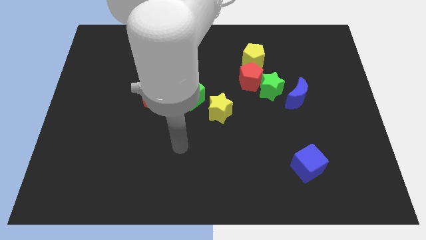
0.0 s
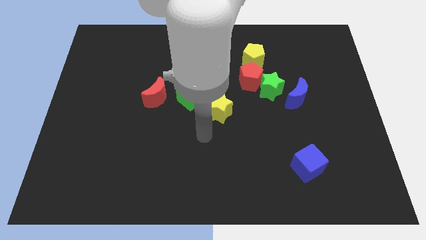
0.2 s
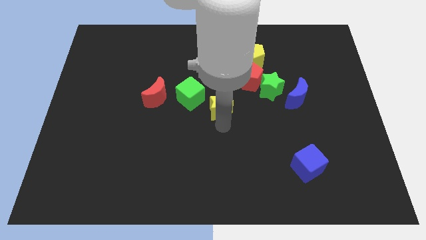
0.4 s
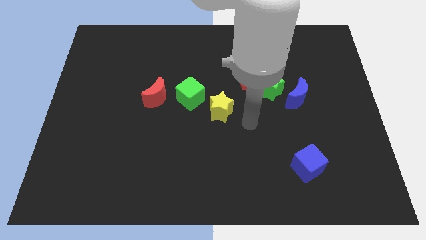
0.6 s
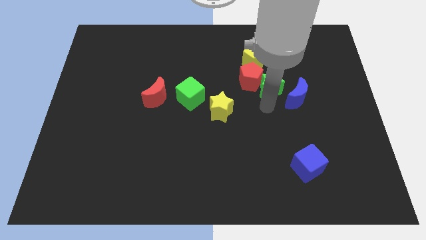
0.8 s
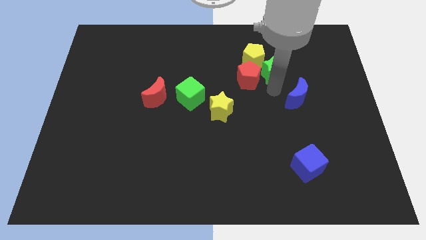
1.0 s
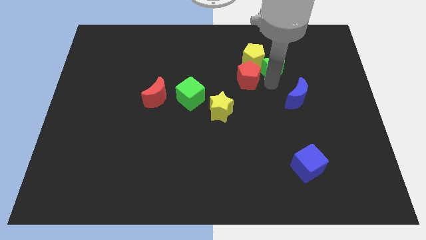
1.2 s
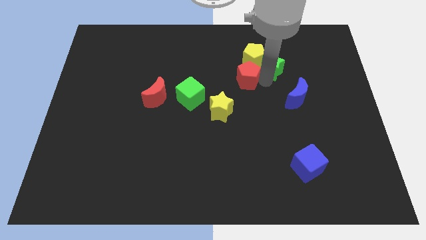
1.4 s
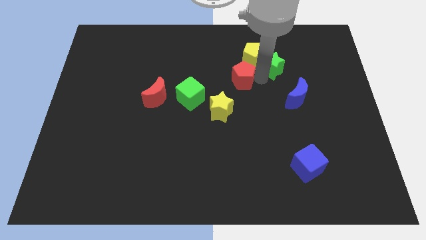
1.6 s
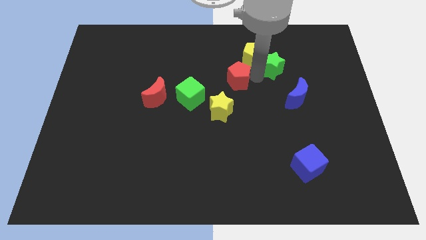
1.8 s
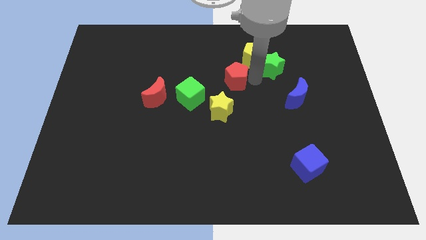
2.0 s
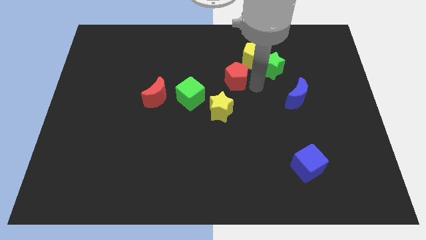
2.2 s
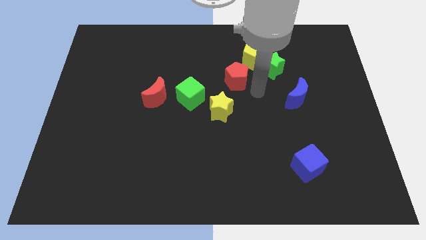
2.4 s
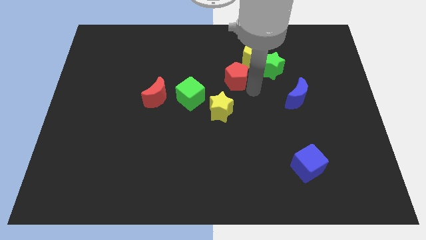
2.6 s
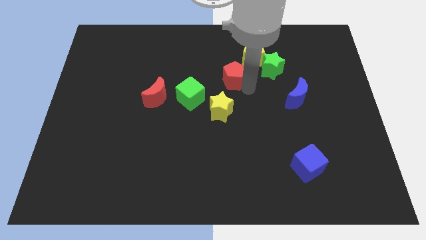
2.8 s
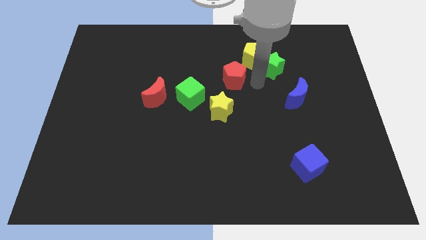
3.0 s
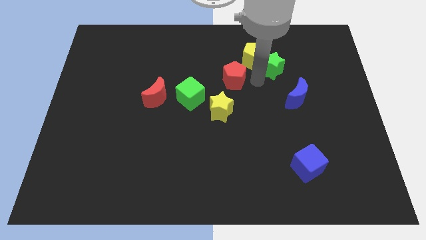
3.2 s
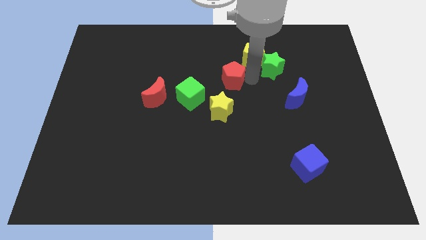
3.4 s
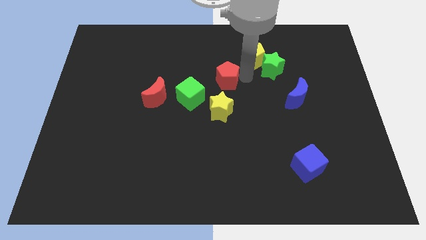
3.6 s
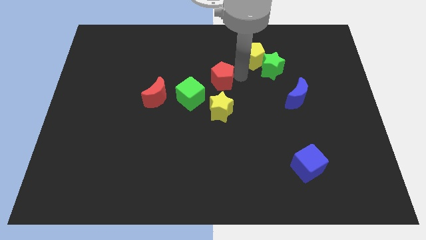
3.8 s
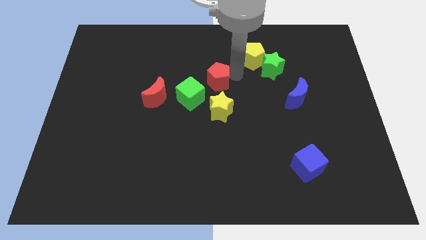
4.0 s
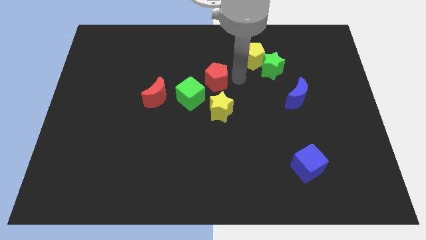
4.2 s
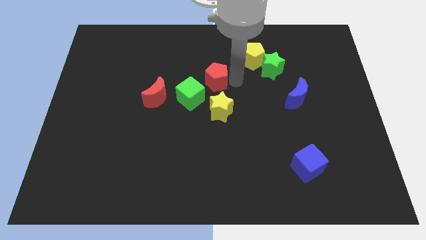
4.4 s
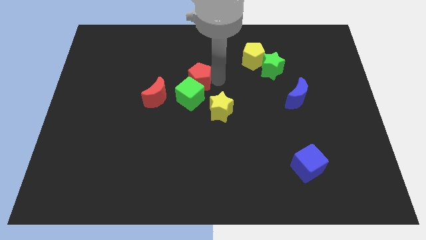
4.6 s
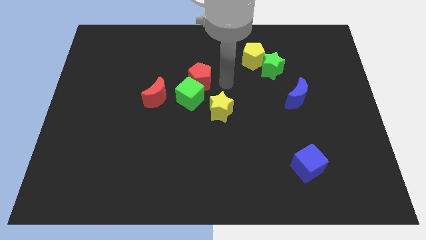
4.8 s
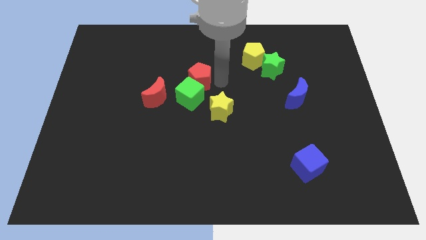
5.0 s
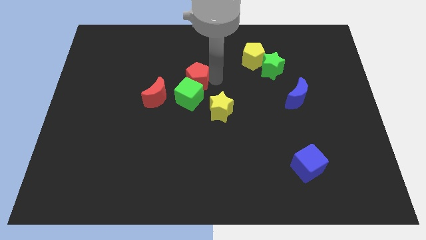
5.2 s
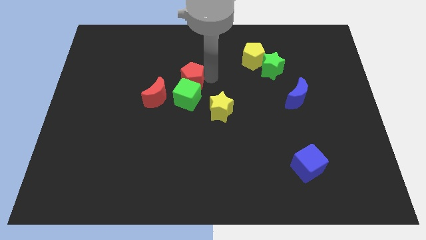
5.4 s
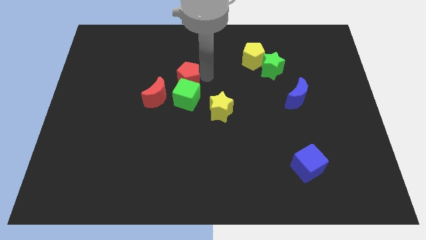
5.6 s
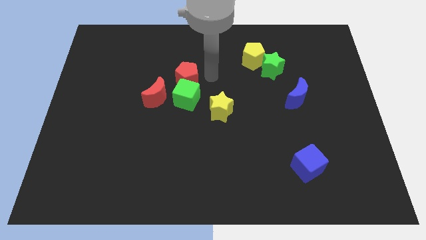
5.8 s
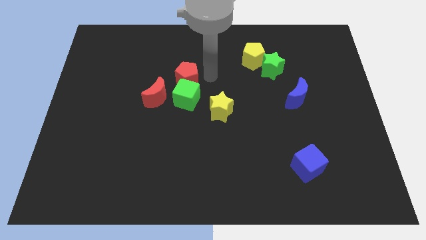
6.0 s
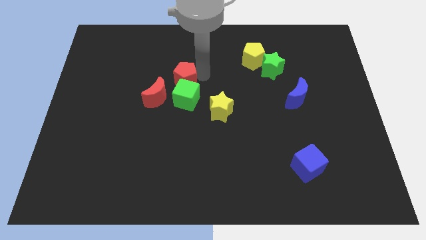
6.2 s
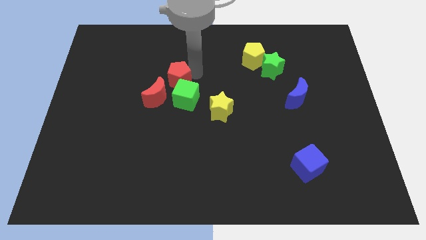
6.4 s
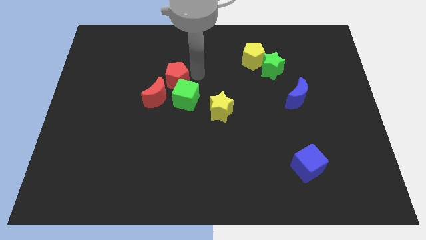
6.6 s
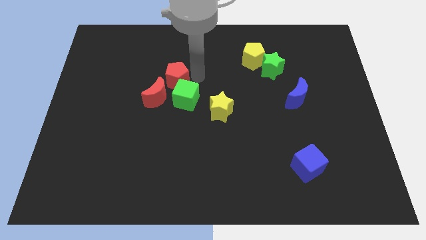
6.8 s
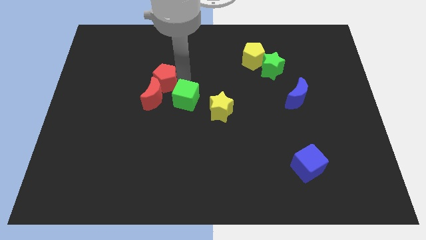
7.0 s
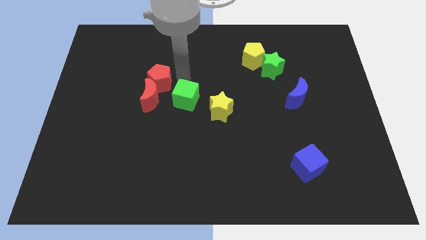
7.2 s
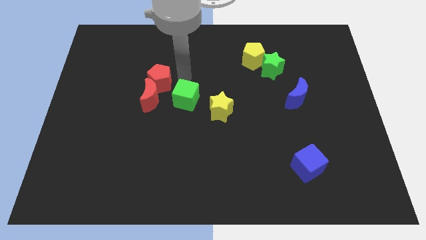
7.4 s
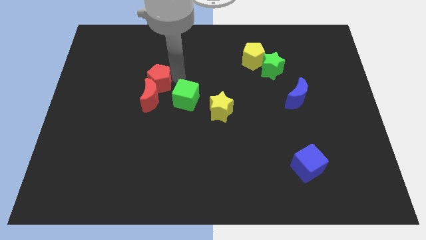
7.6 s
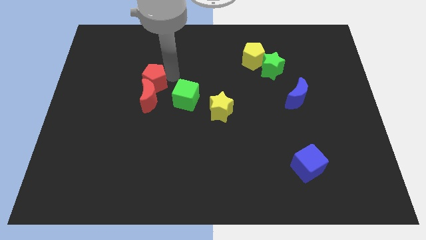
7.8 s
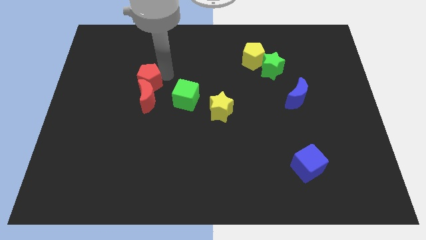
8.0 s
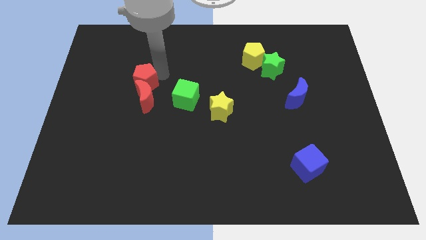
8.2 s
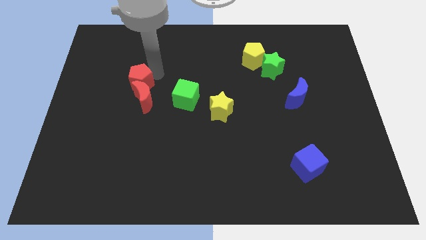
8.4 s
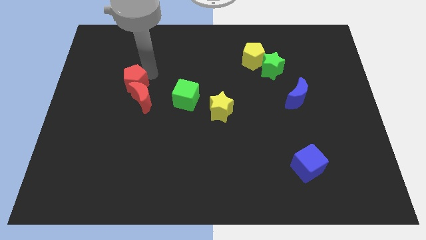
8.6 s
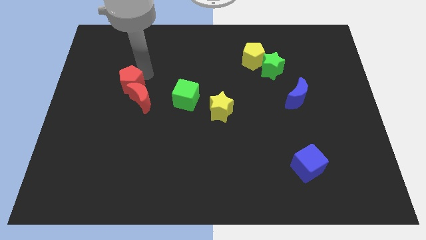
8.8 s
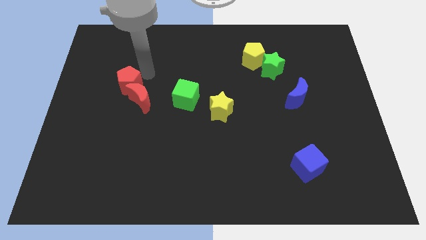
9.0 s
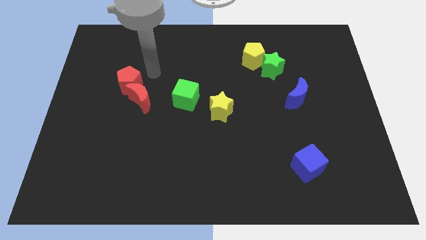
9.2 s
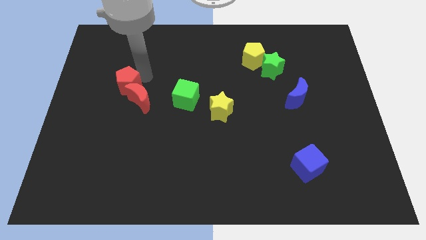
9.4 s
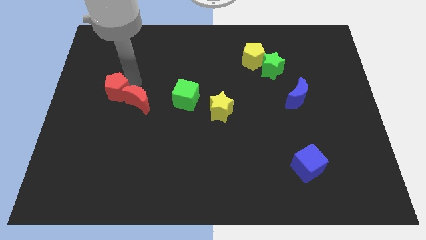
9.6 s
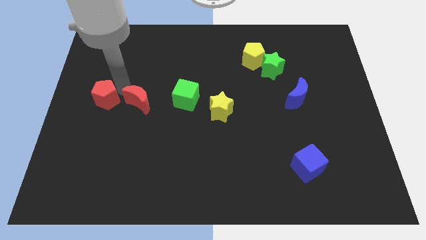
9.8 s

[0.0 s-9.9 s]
put the red pentagon to the left side

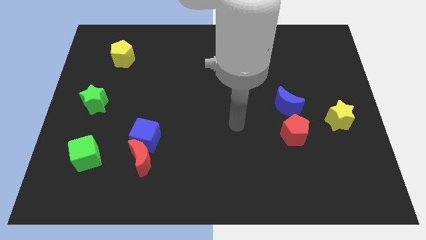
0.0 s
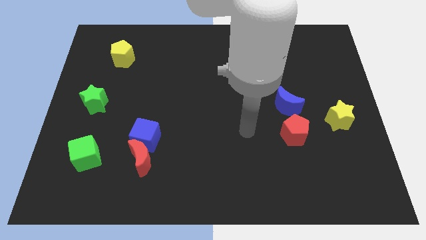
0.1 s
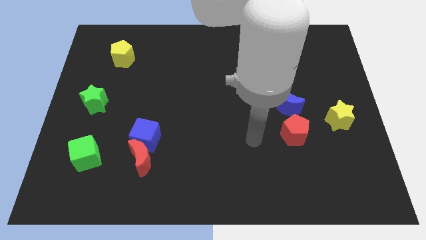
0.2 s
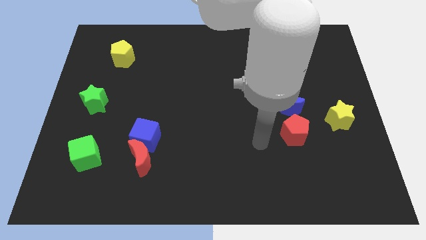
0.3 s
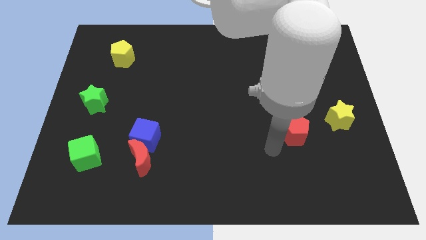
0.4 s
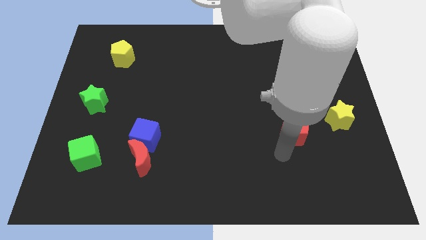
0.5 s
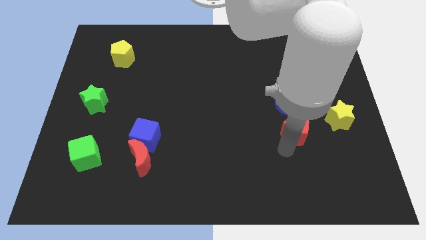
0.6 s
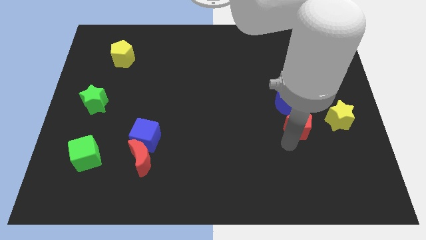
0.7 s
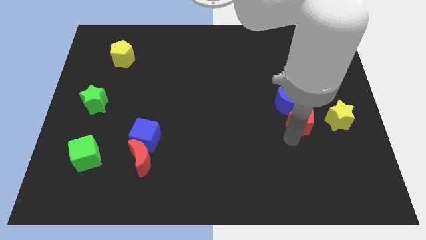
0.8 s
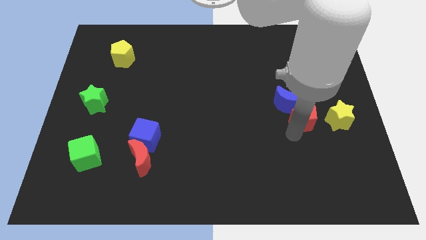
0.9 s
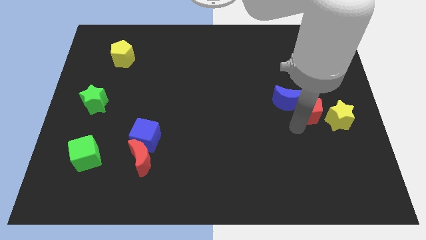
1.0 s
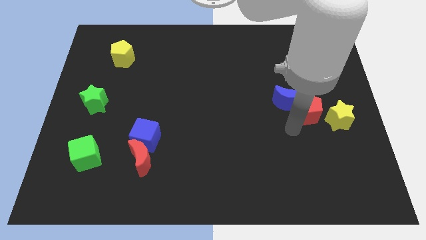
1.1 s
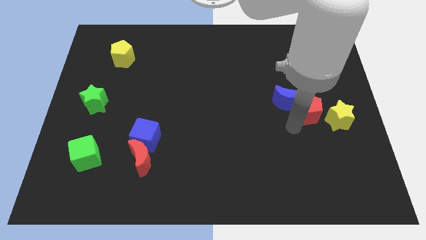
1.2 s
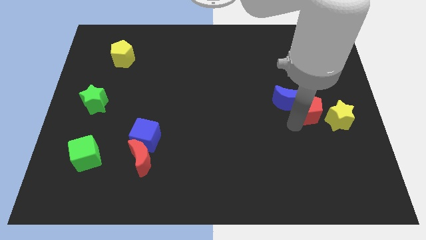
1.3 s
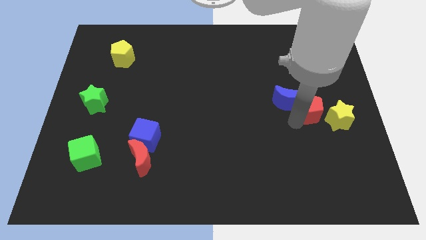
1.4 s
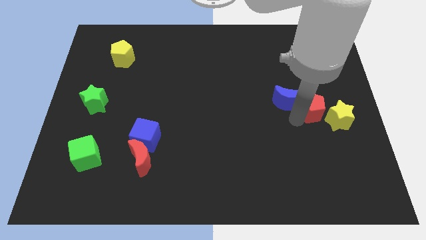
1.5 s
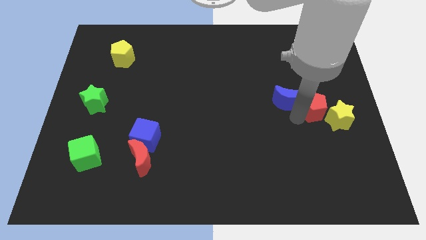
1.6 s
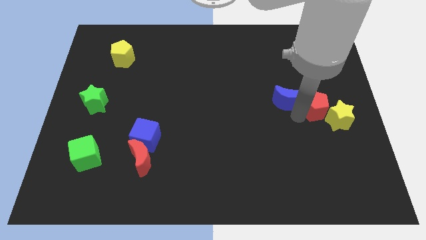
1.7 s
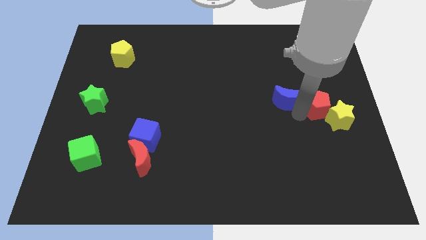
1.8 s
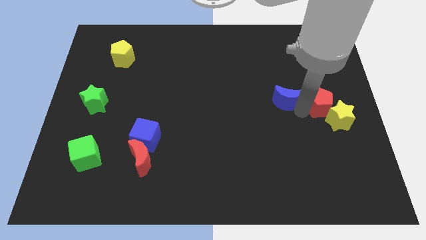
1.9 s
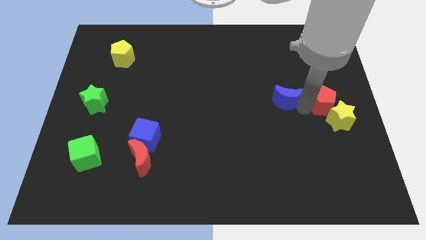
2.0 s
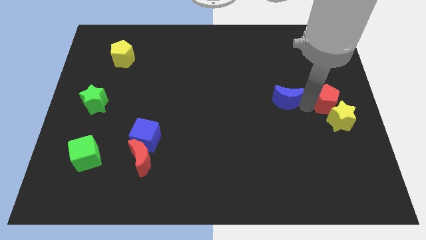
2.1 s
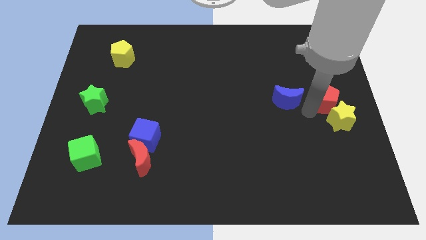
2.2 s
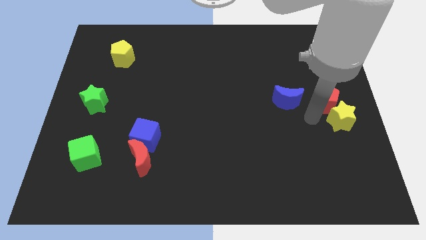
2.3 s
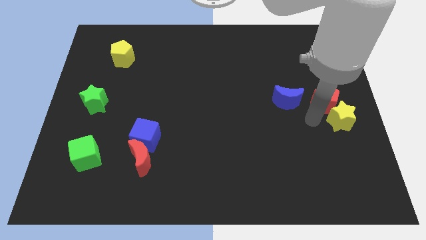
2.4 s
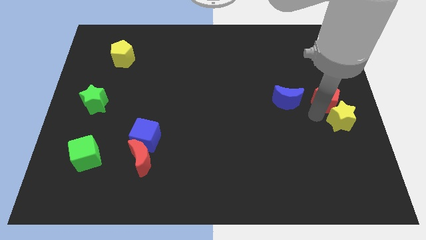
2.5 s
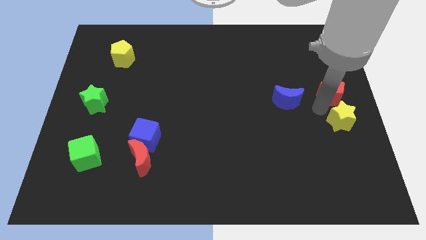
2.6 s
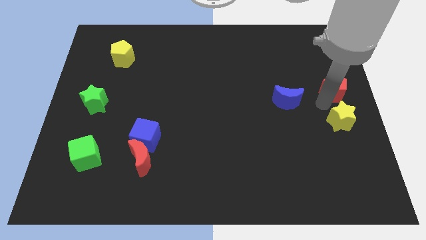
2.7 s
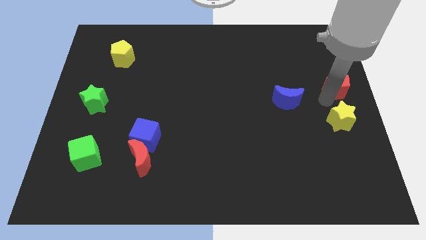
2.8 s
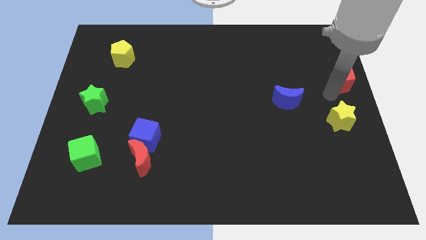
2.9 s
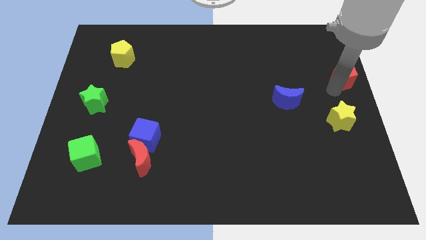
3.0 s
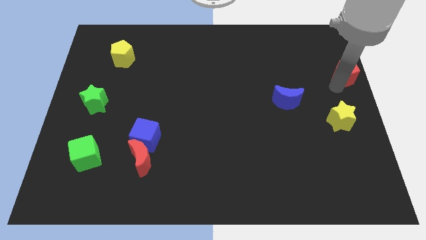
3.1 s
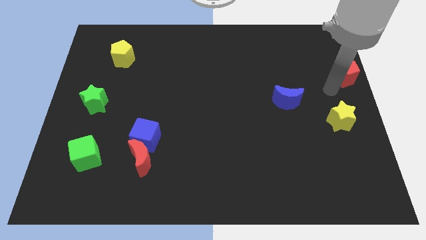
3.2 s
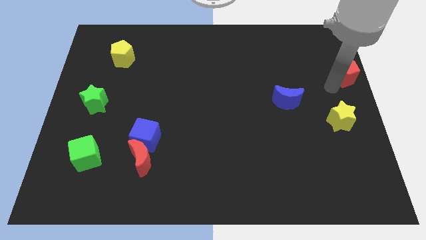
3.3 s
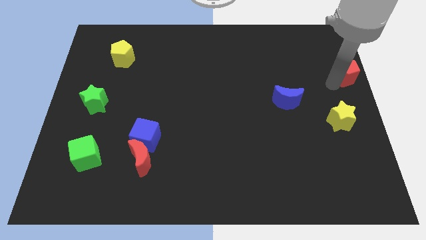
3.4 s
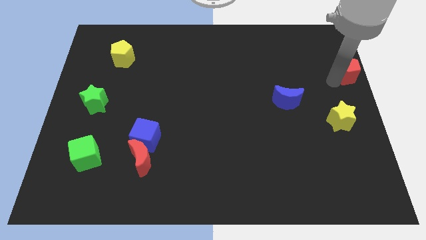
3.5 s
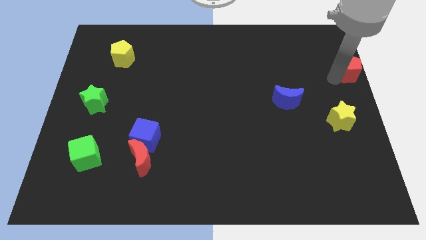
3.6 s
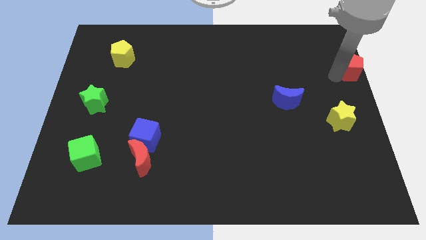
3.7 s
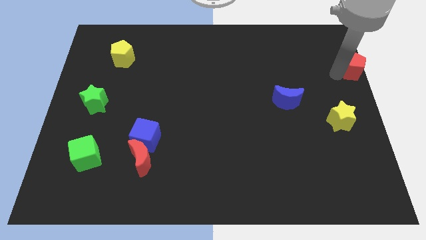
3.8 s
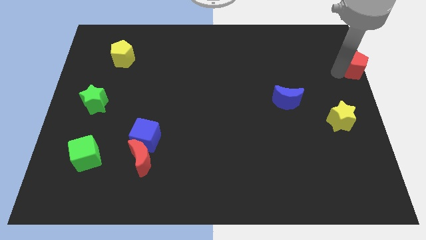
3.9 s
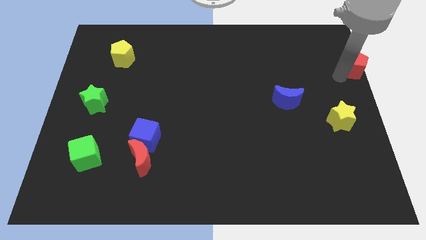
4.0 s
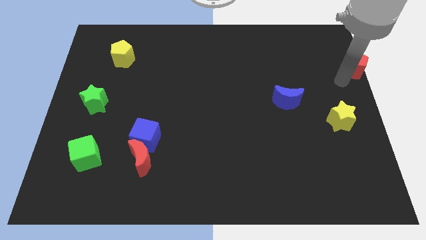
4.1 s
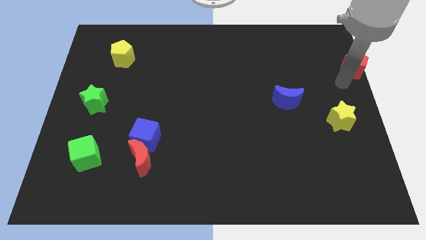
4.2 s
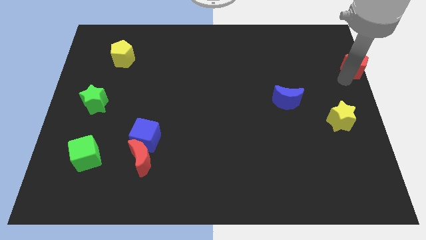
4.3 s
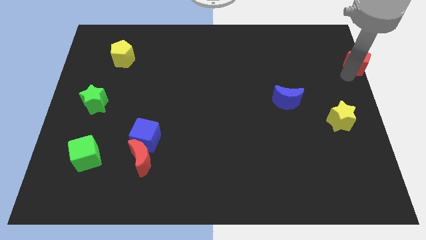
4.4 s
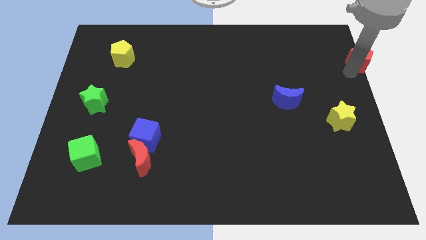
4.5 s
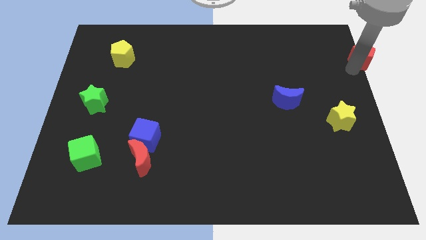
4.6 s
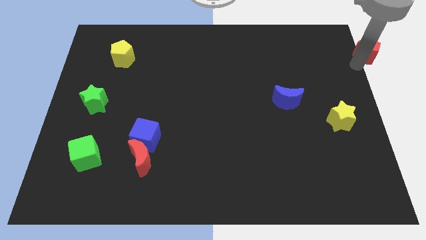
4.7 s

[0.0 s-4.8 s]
push the red pentagon to the top right of the board
